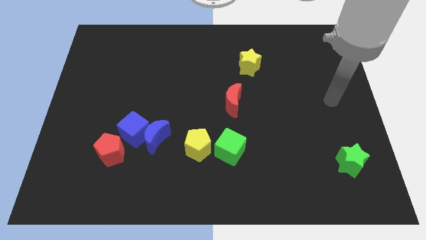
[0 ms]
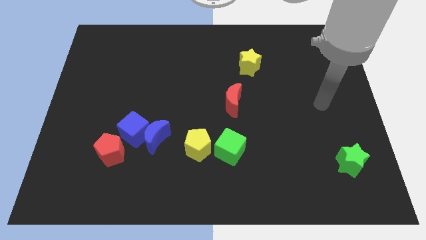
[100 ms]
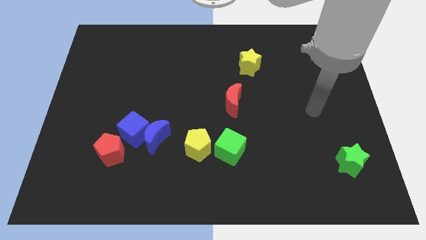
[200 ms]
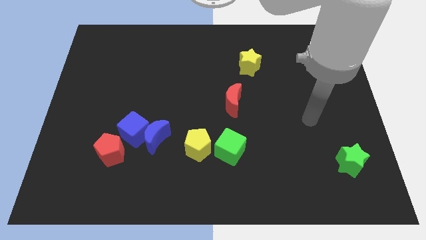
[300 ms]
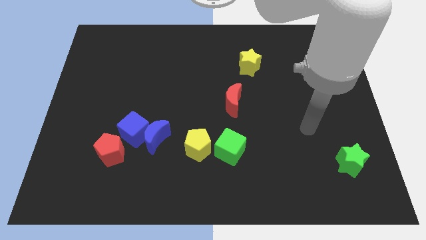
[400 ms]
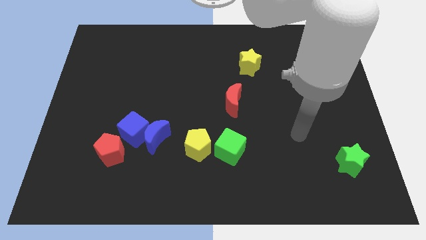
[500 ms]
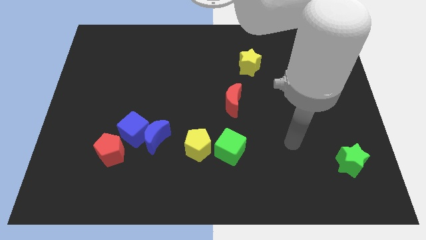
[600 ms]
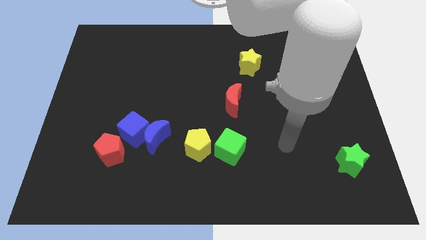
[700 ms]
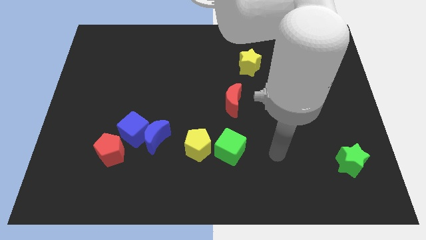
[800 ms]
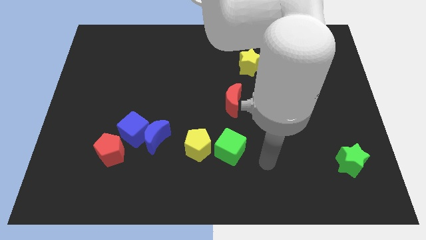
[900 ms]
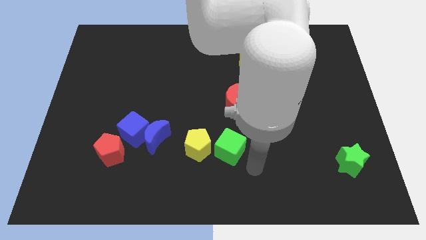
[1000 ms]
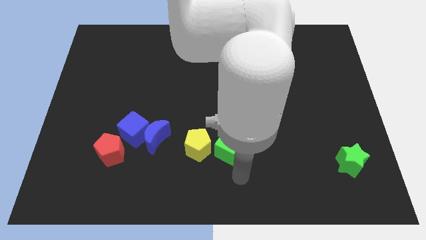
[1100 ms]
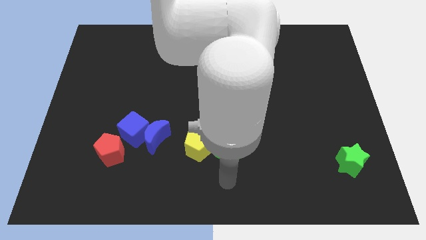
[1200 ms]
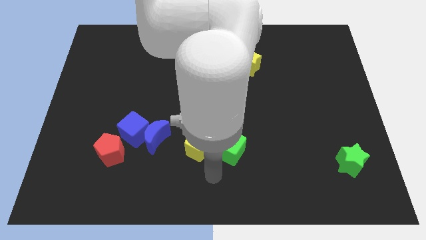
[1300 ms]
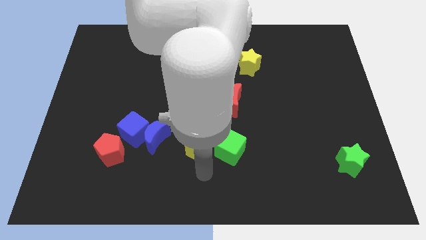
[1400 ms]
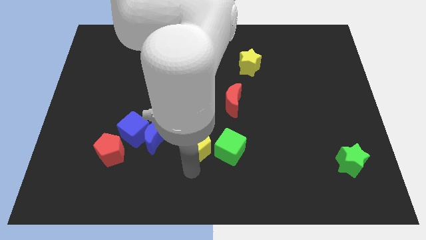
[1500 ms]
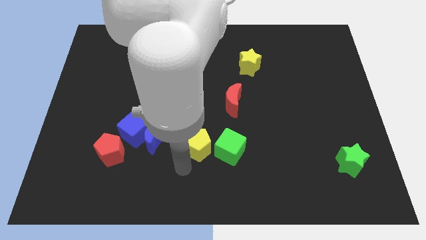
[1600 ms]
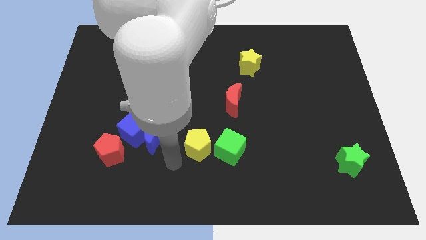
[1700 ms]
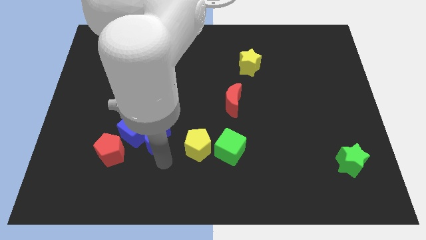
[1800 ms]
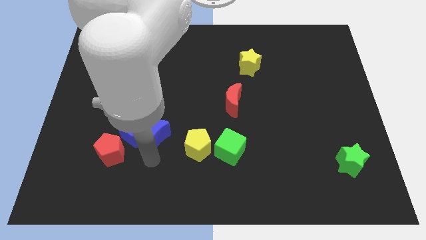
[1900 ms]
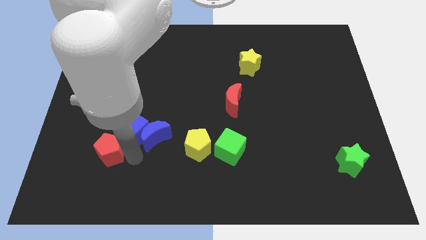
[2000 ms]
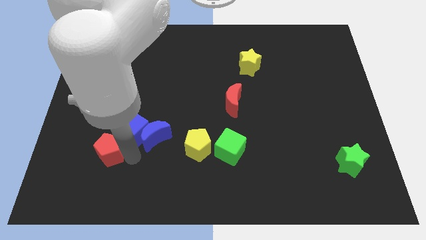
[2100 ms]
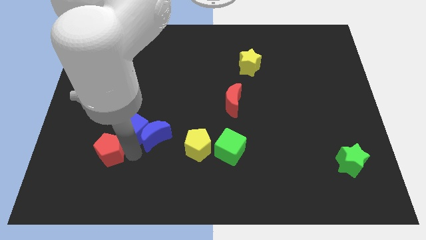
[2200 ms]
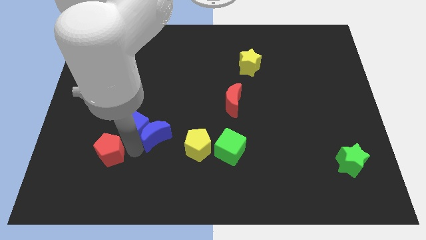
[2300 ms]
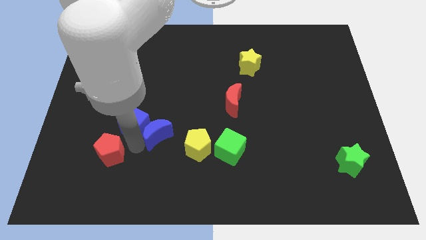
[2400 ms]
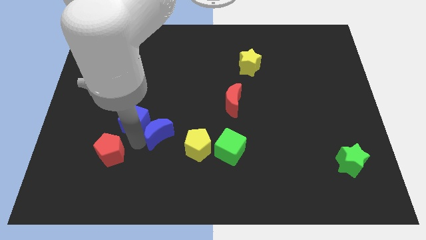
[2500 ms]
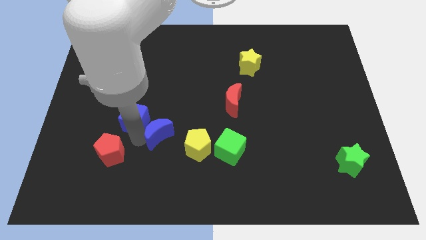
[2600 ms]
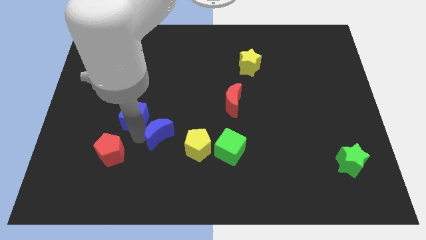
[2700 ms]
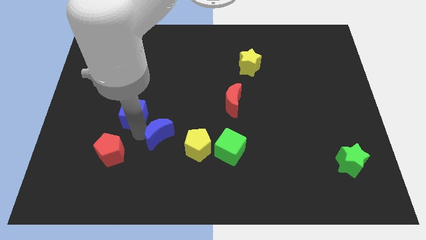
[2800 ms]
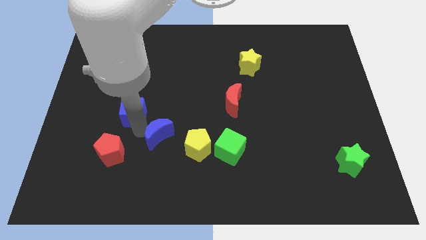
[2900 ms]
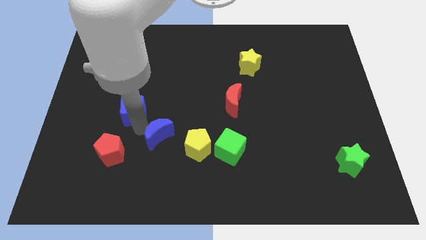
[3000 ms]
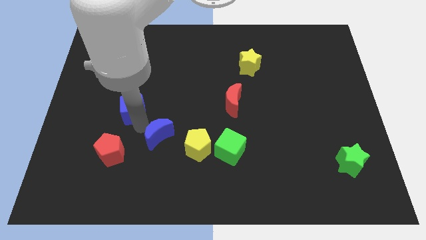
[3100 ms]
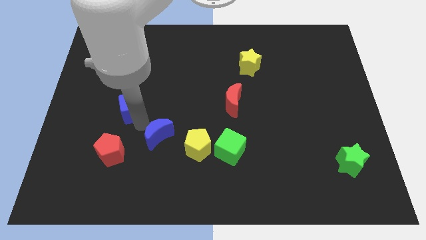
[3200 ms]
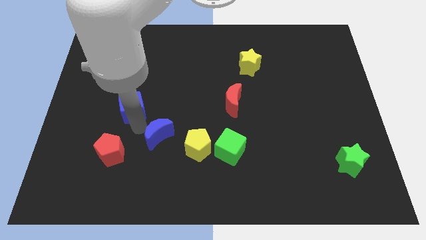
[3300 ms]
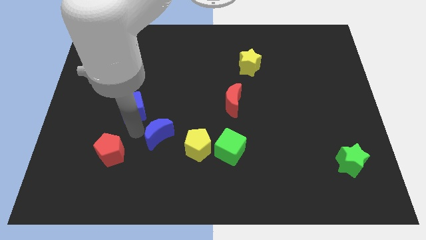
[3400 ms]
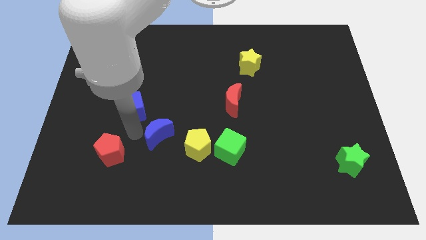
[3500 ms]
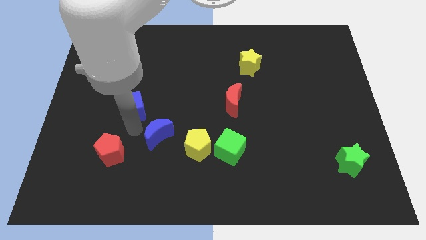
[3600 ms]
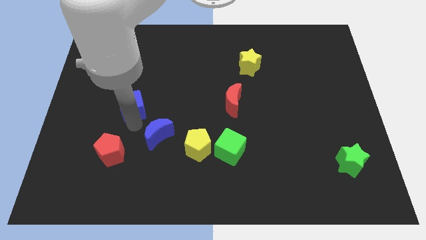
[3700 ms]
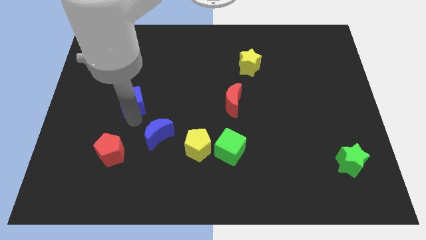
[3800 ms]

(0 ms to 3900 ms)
pull the blue cube apart from the blue moon and red pentagon

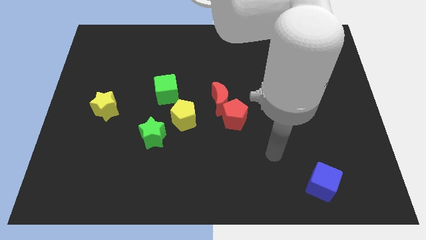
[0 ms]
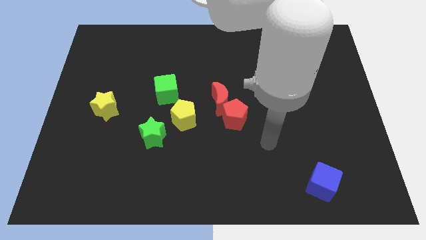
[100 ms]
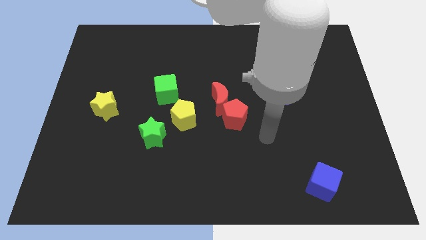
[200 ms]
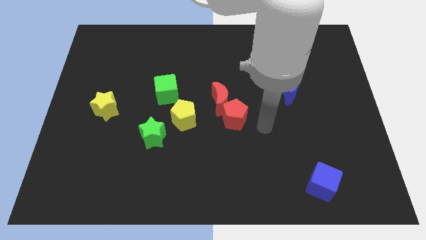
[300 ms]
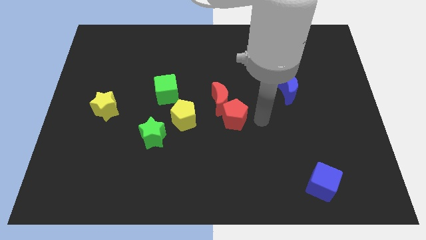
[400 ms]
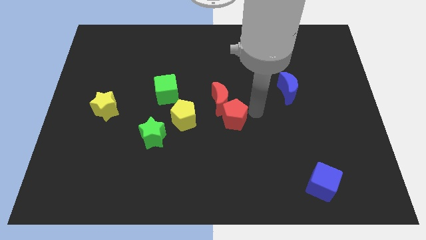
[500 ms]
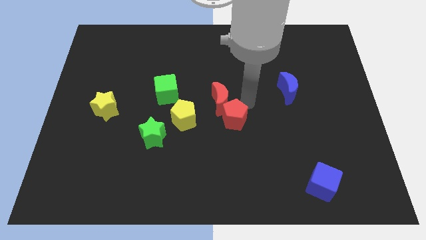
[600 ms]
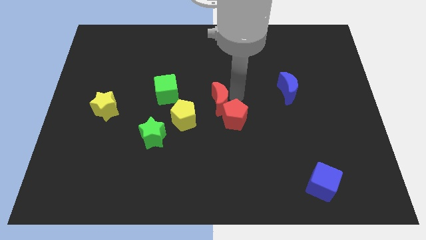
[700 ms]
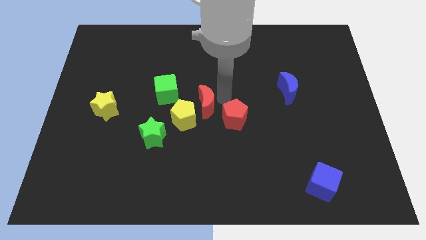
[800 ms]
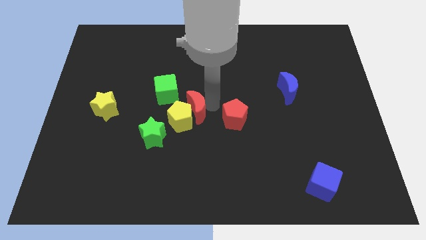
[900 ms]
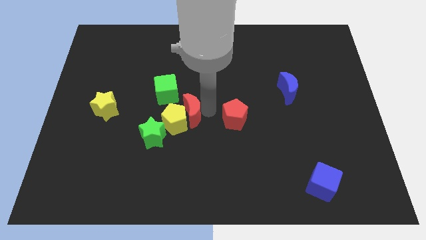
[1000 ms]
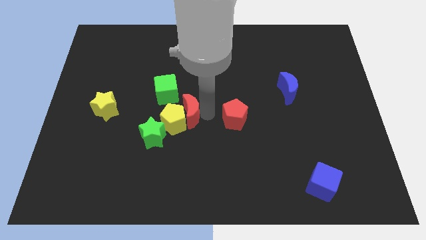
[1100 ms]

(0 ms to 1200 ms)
move the red pentagon away from the red moon

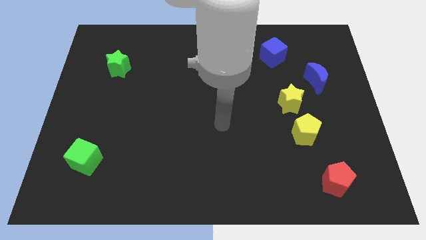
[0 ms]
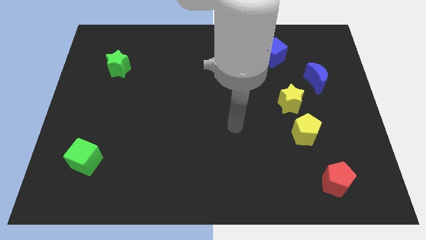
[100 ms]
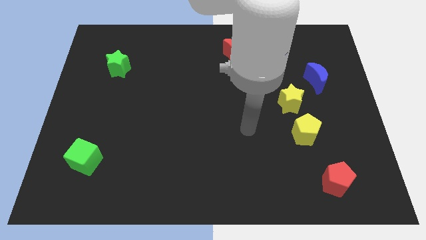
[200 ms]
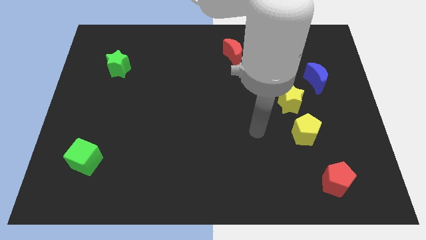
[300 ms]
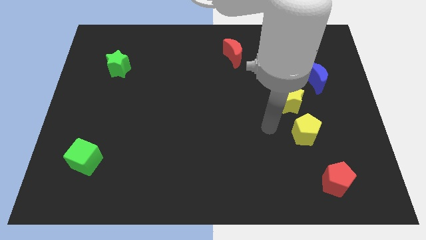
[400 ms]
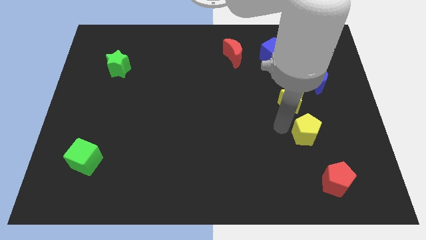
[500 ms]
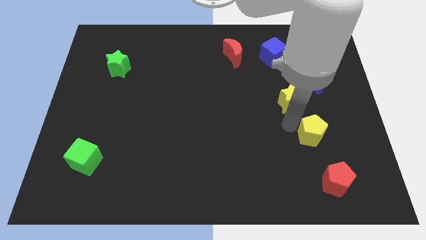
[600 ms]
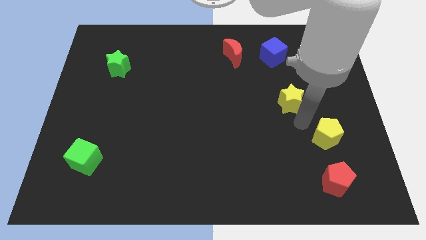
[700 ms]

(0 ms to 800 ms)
pull the yellow star apart from the yellow pentagon

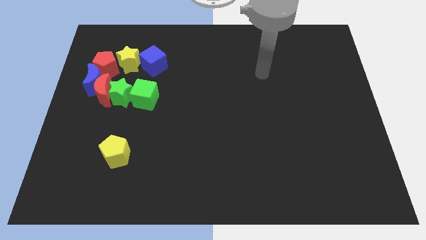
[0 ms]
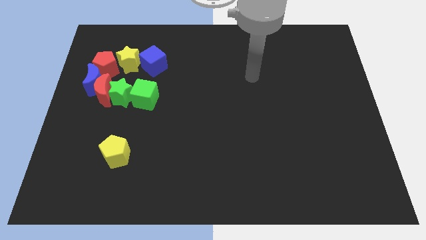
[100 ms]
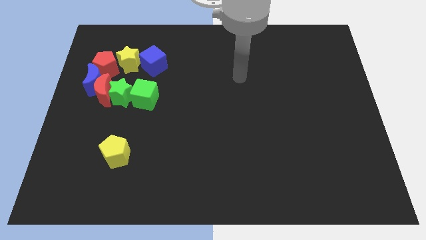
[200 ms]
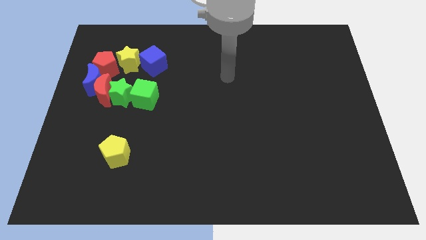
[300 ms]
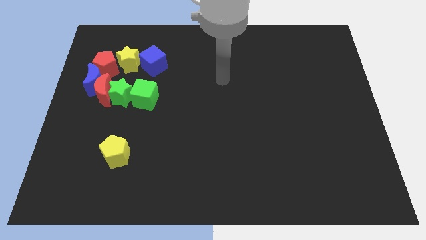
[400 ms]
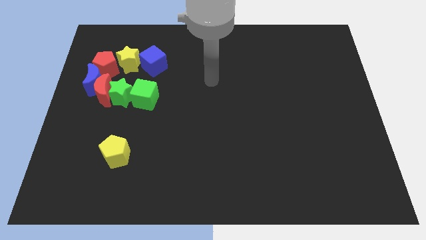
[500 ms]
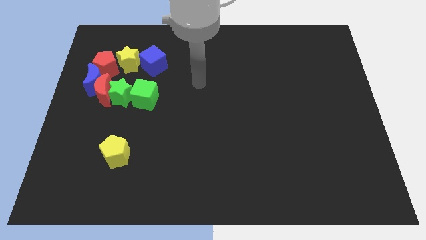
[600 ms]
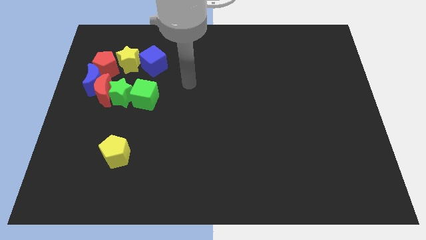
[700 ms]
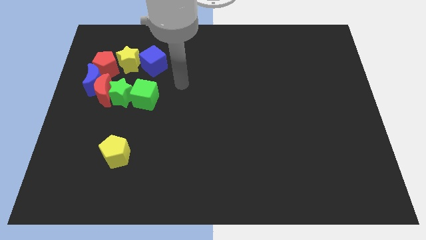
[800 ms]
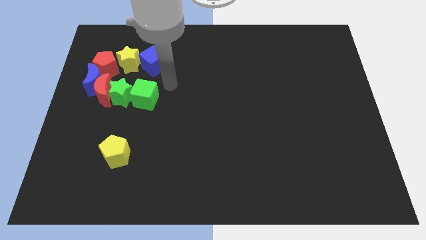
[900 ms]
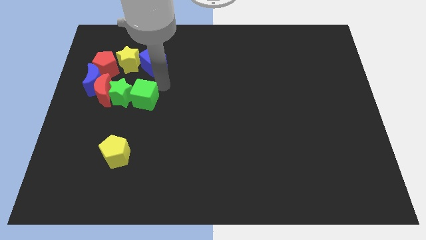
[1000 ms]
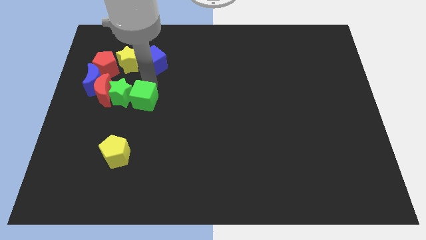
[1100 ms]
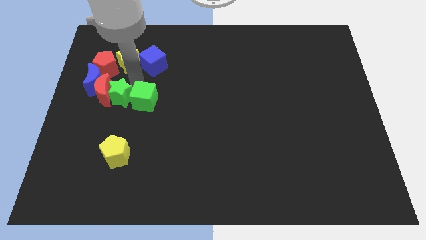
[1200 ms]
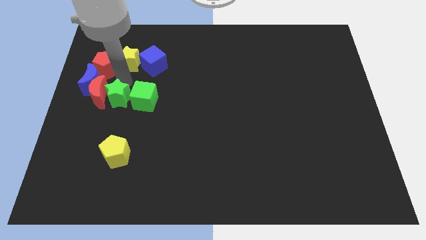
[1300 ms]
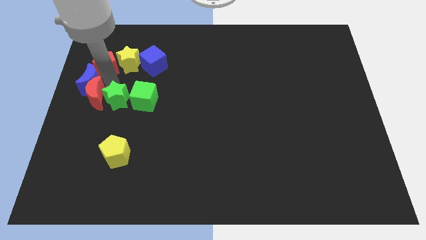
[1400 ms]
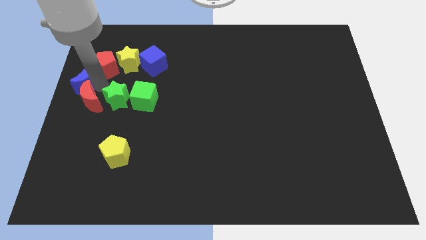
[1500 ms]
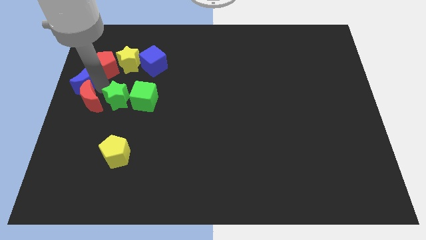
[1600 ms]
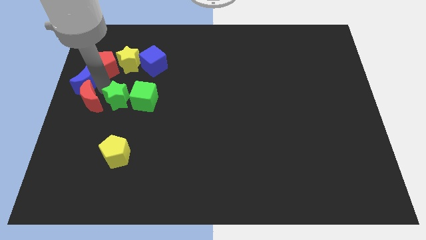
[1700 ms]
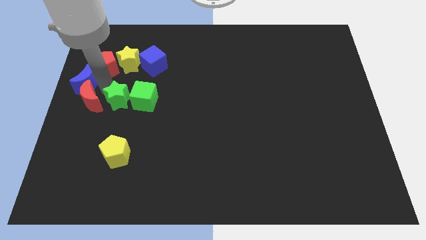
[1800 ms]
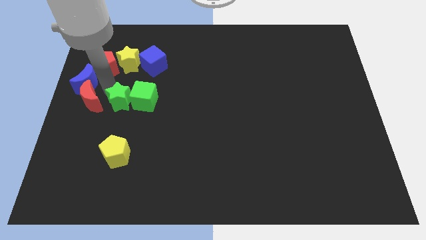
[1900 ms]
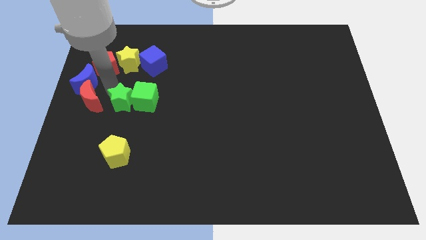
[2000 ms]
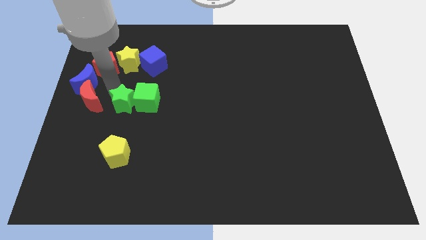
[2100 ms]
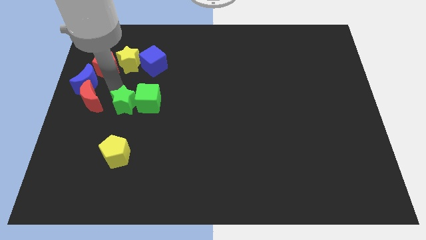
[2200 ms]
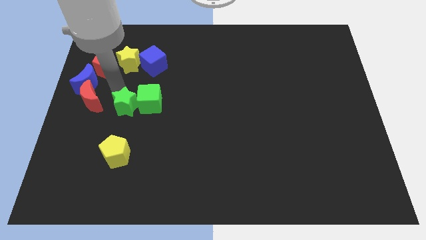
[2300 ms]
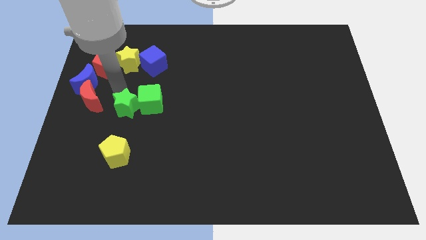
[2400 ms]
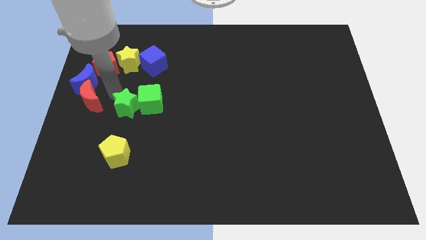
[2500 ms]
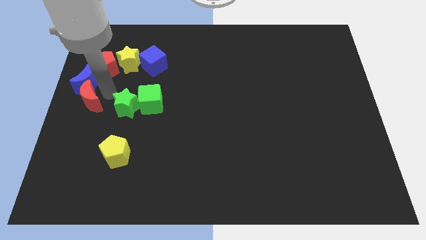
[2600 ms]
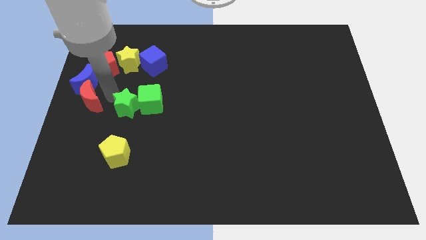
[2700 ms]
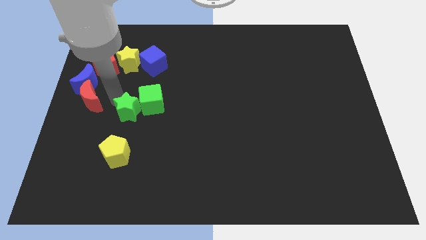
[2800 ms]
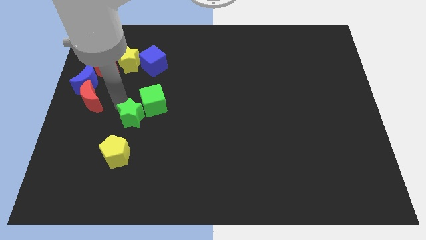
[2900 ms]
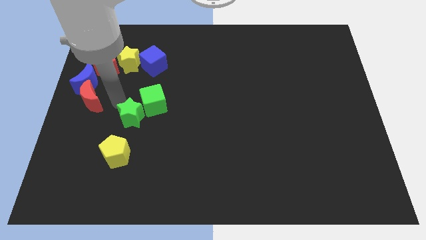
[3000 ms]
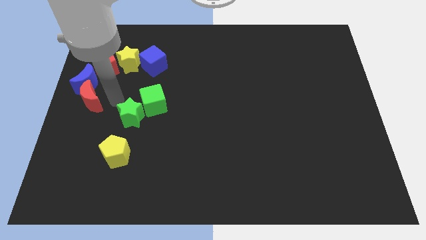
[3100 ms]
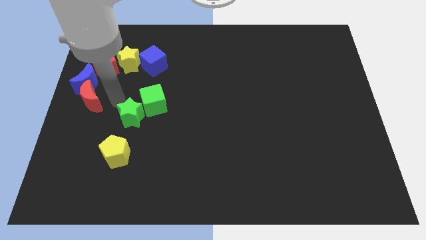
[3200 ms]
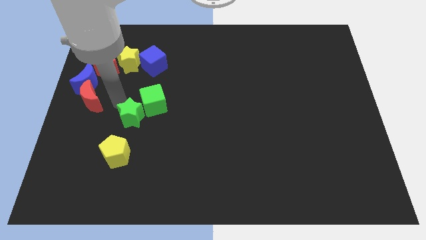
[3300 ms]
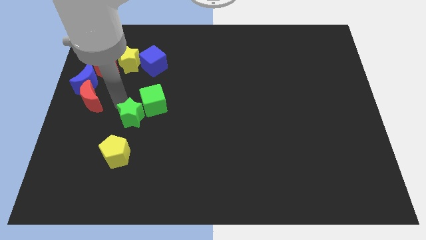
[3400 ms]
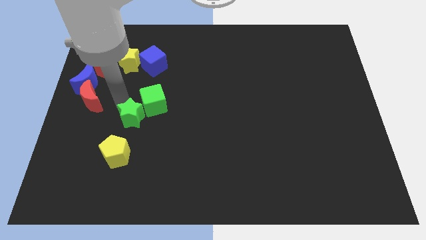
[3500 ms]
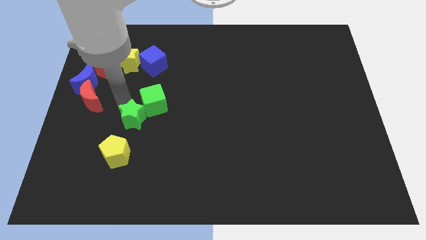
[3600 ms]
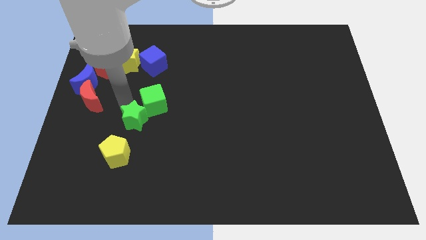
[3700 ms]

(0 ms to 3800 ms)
pull the green star apart from the red moon, green cube, and blue moon
